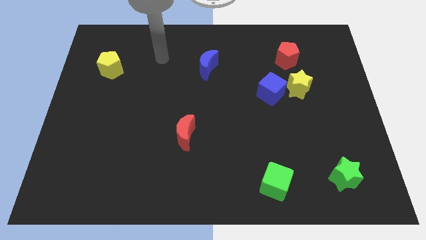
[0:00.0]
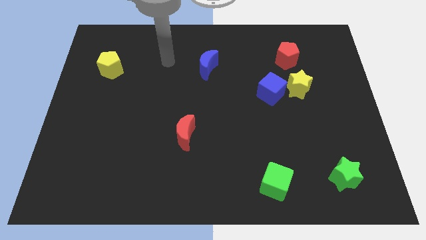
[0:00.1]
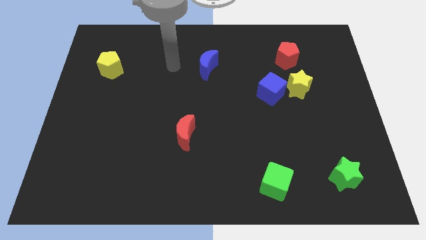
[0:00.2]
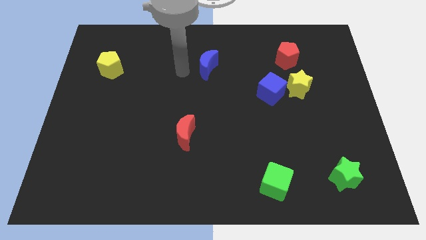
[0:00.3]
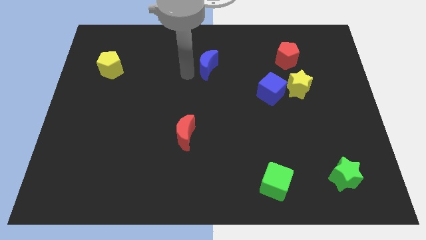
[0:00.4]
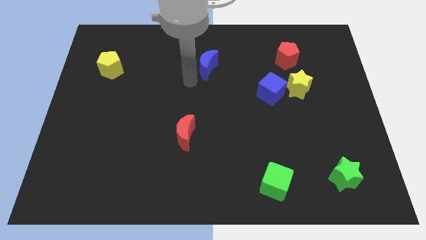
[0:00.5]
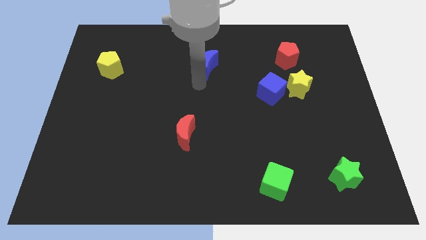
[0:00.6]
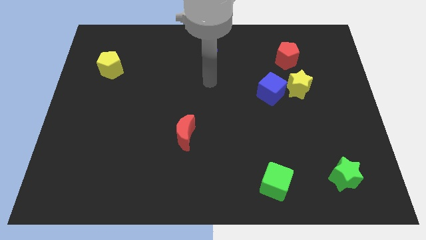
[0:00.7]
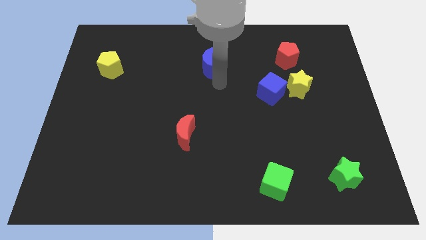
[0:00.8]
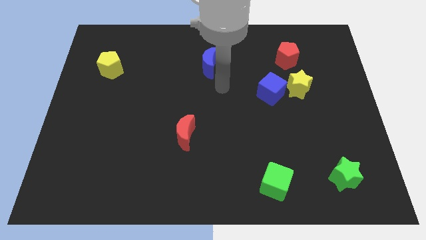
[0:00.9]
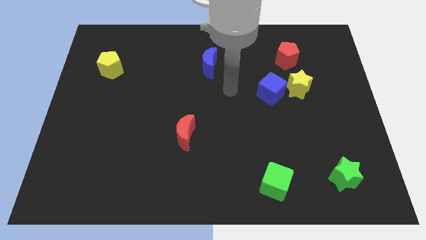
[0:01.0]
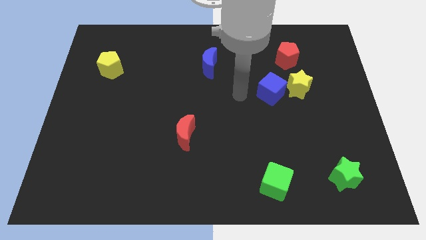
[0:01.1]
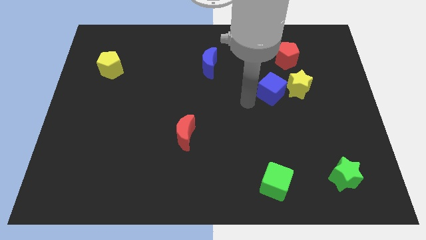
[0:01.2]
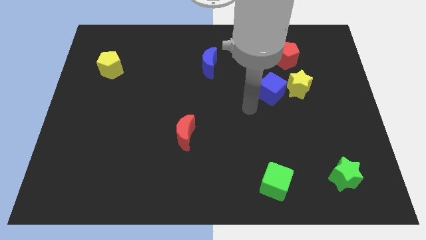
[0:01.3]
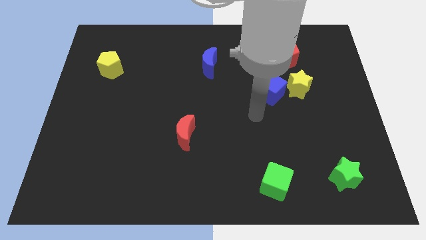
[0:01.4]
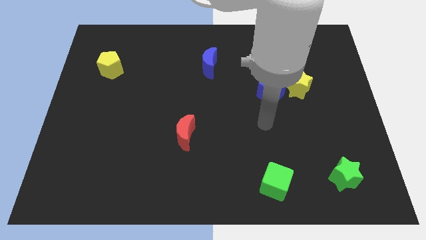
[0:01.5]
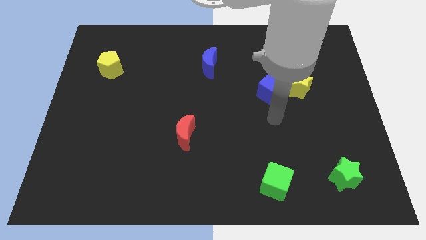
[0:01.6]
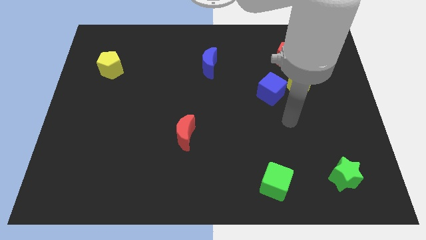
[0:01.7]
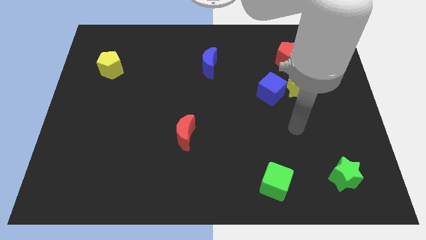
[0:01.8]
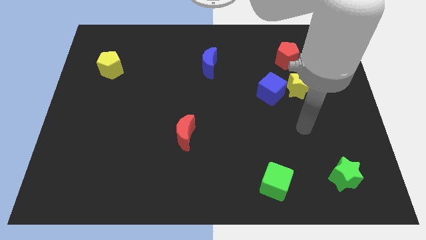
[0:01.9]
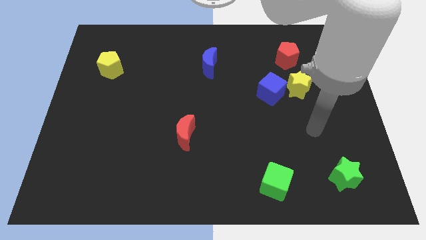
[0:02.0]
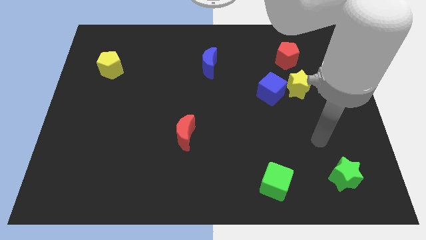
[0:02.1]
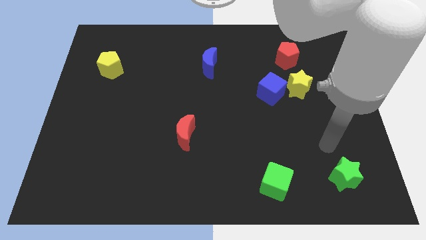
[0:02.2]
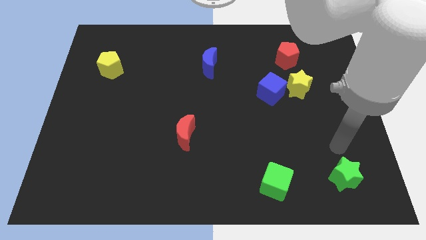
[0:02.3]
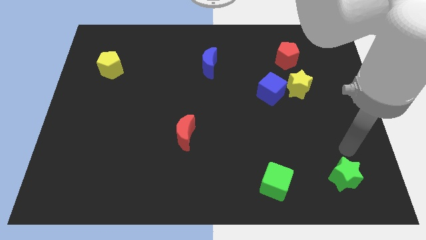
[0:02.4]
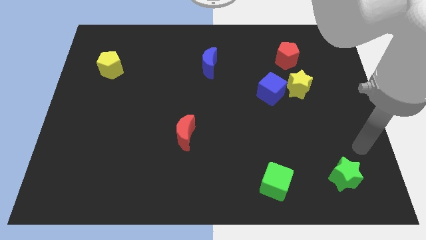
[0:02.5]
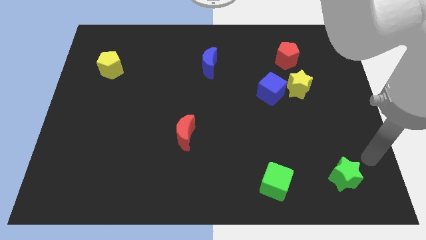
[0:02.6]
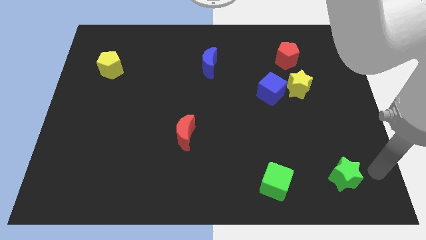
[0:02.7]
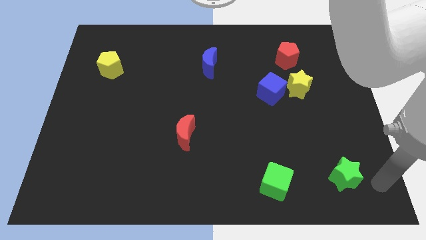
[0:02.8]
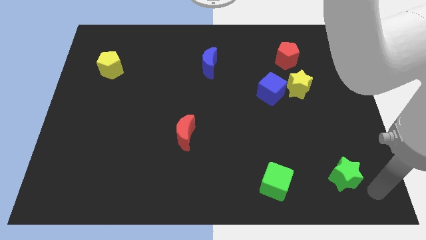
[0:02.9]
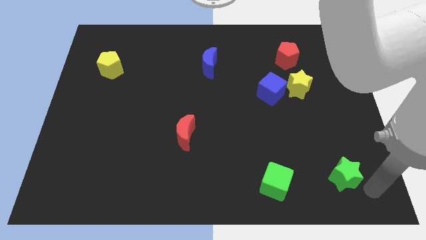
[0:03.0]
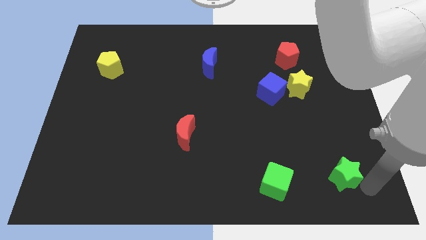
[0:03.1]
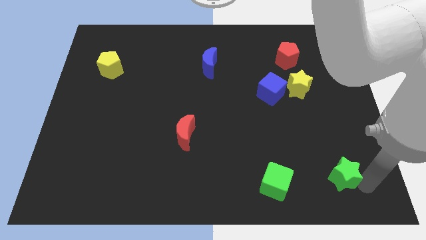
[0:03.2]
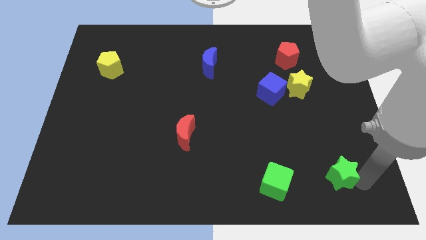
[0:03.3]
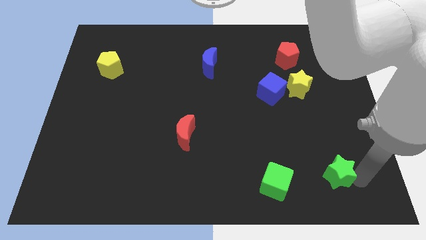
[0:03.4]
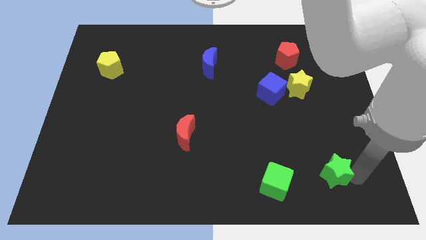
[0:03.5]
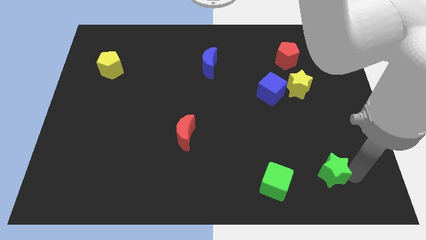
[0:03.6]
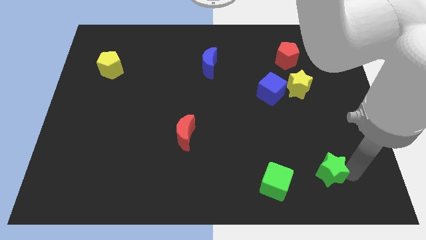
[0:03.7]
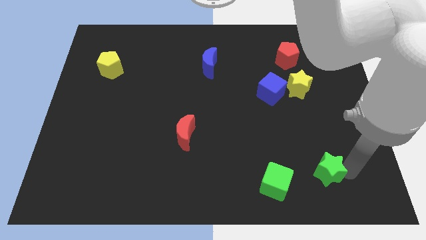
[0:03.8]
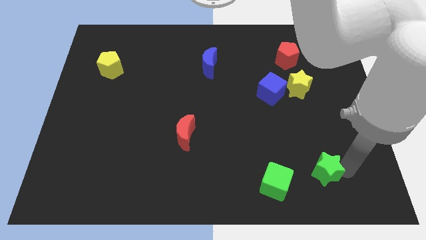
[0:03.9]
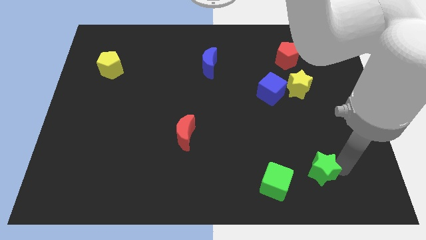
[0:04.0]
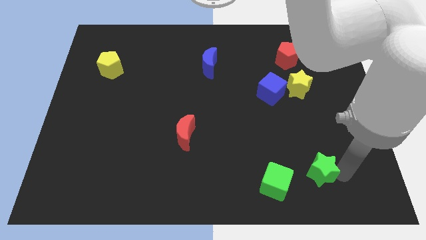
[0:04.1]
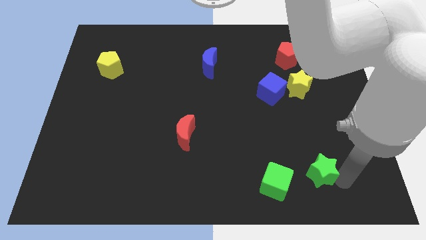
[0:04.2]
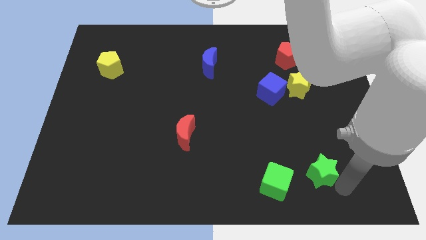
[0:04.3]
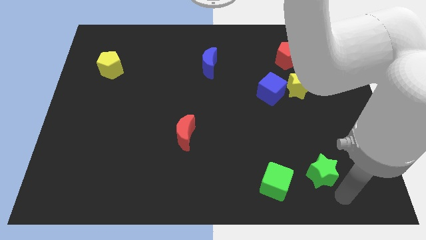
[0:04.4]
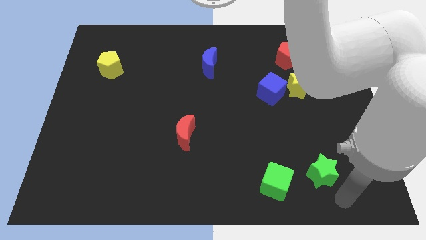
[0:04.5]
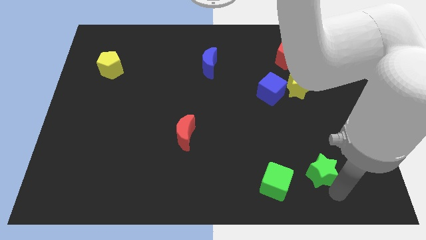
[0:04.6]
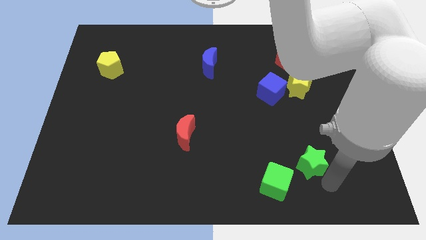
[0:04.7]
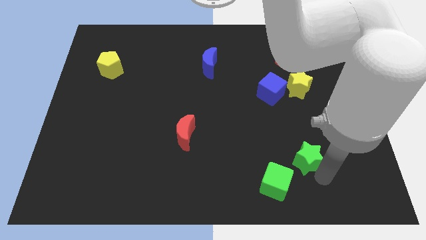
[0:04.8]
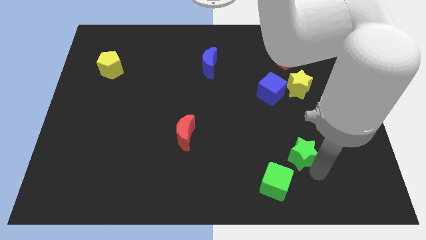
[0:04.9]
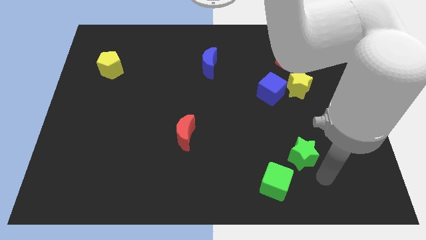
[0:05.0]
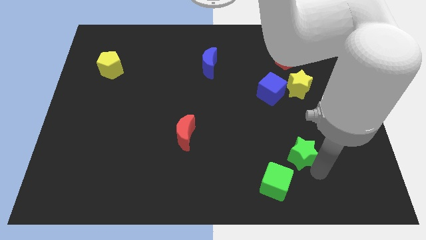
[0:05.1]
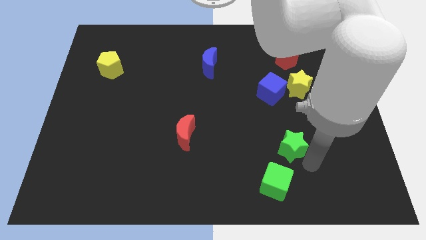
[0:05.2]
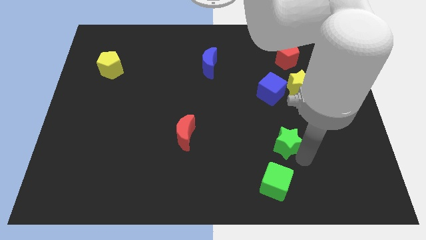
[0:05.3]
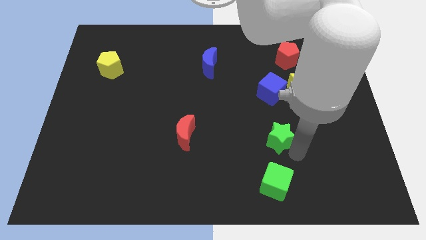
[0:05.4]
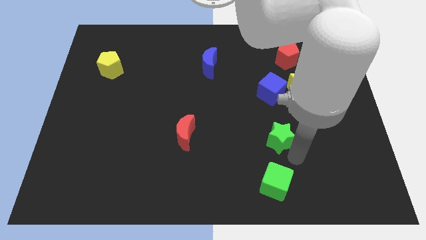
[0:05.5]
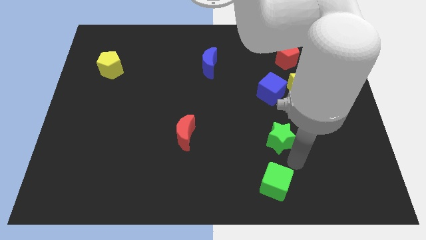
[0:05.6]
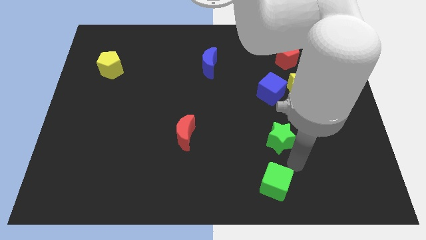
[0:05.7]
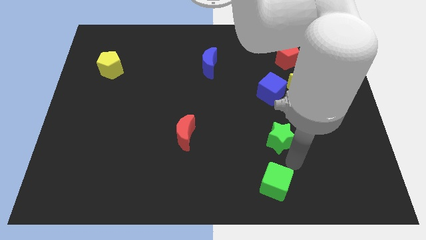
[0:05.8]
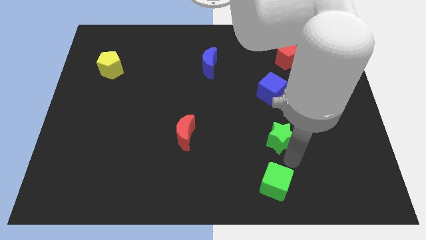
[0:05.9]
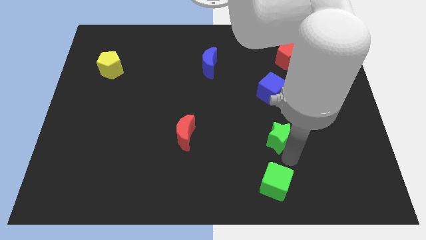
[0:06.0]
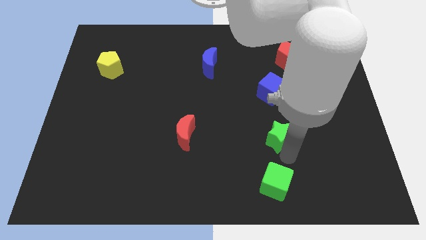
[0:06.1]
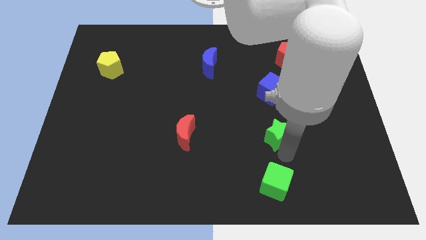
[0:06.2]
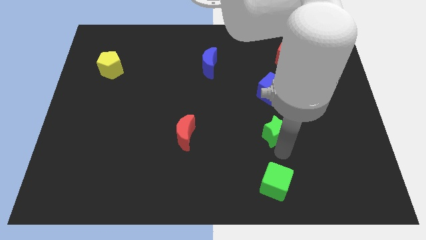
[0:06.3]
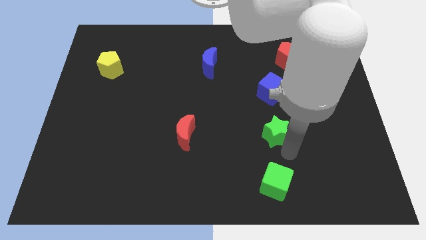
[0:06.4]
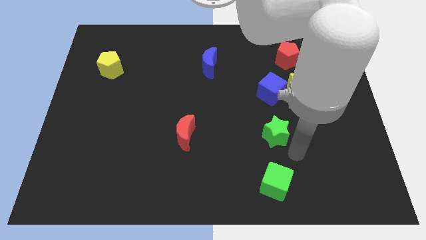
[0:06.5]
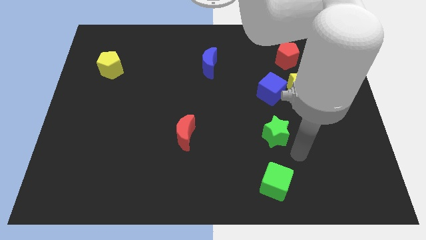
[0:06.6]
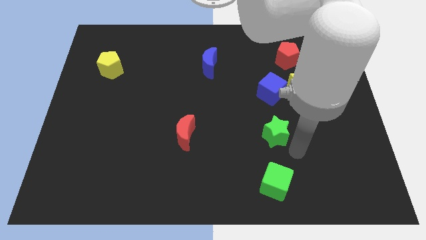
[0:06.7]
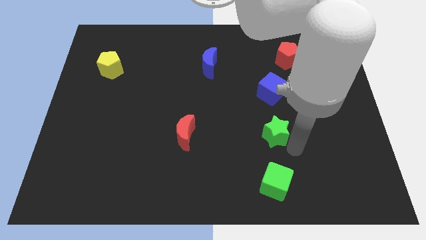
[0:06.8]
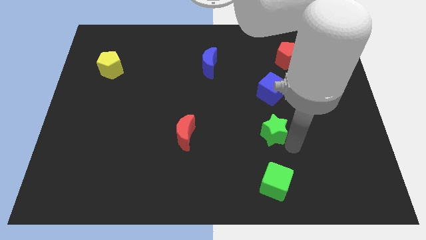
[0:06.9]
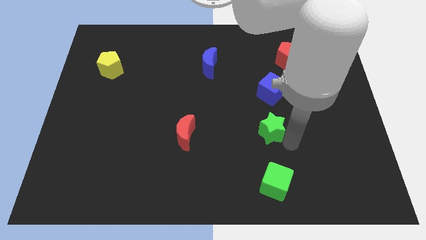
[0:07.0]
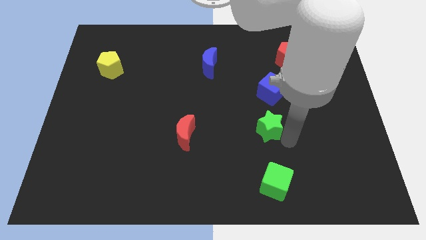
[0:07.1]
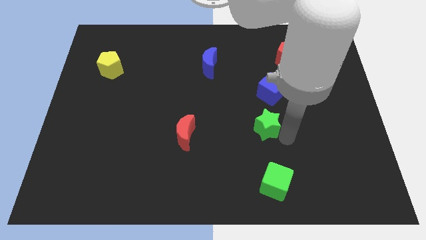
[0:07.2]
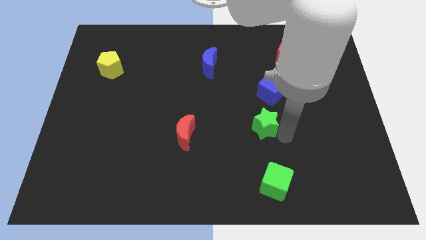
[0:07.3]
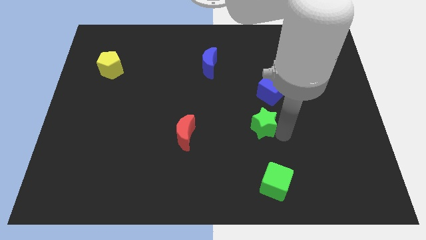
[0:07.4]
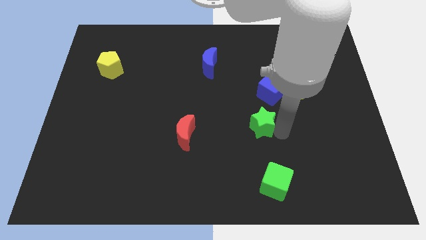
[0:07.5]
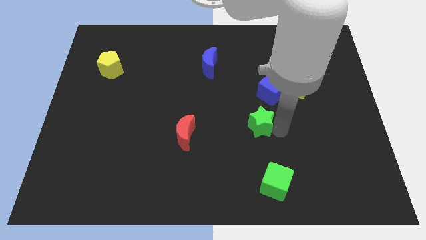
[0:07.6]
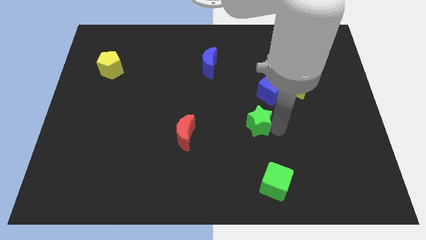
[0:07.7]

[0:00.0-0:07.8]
put the green star to the center
